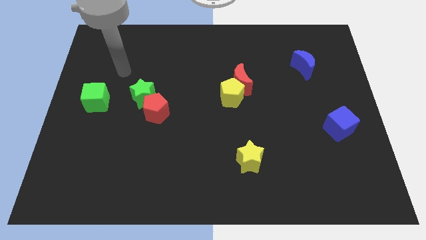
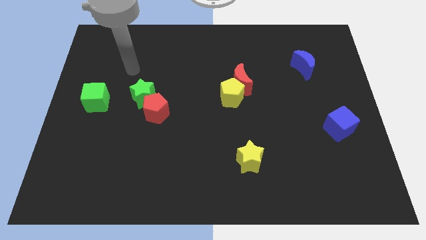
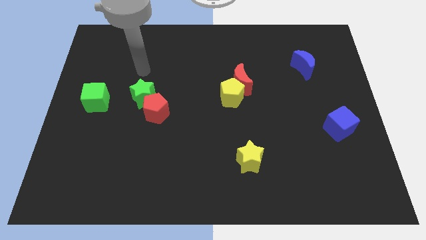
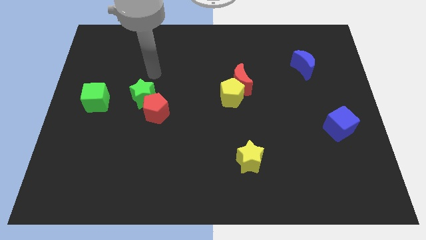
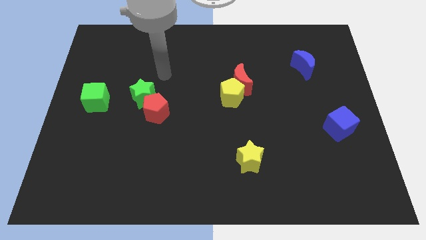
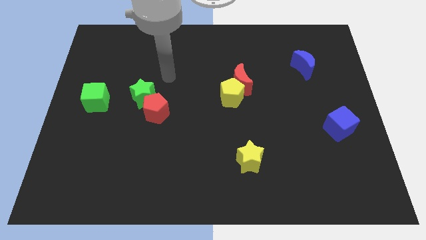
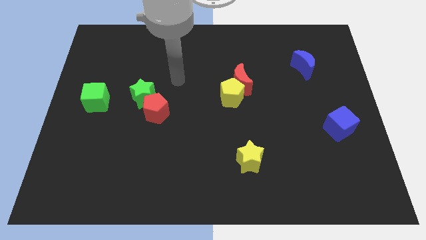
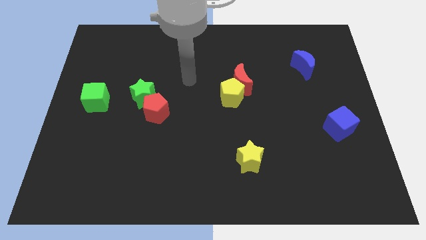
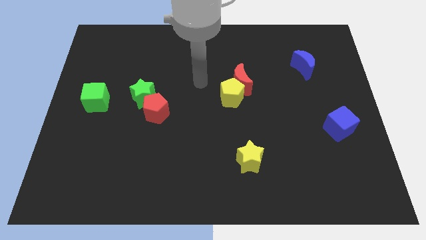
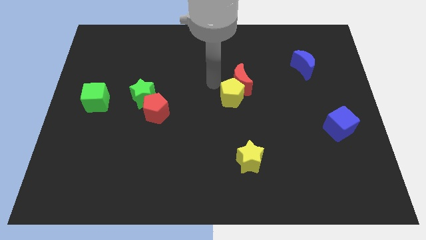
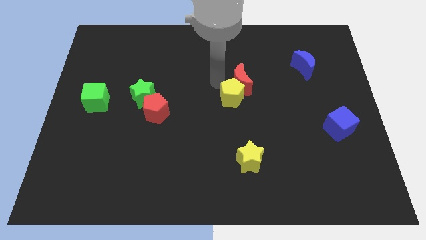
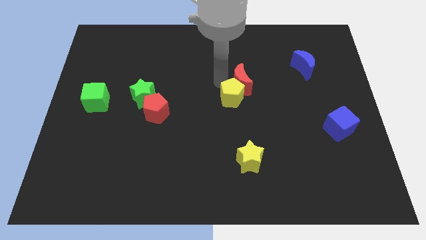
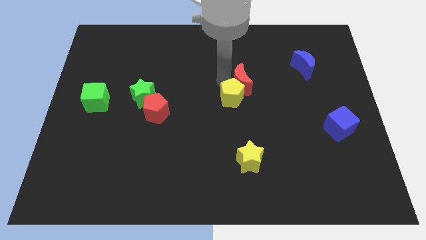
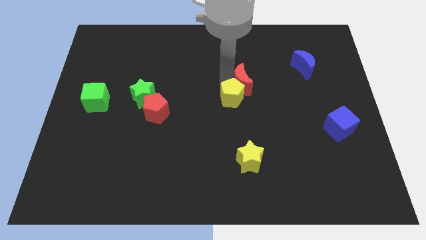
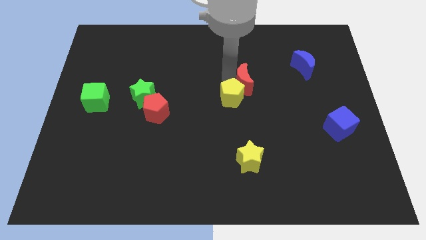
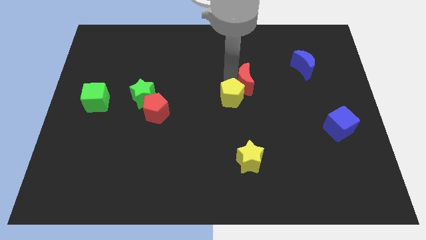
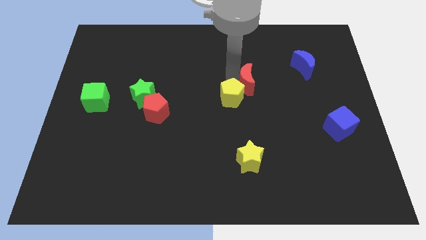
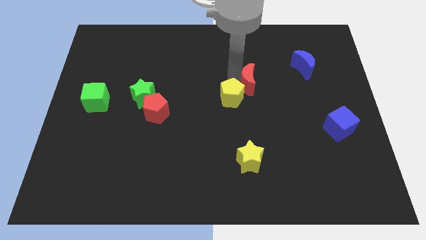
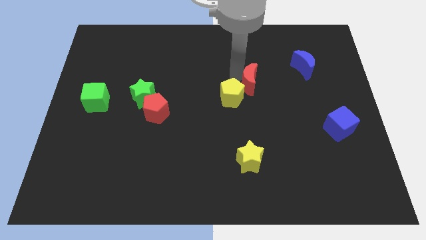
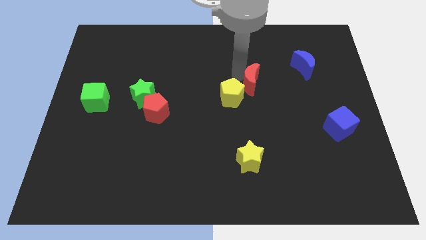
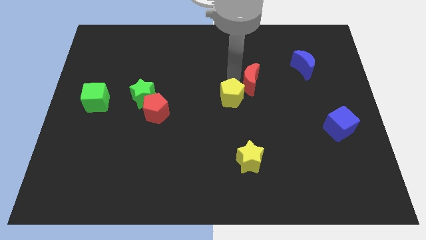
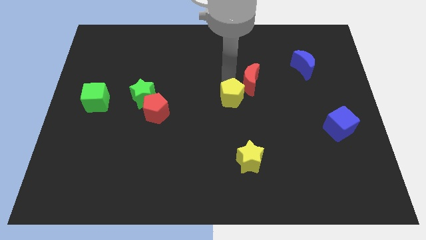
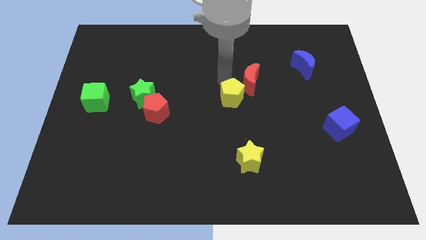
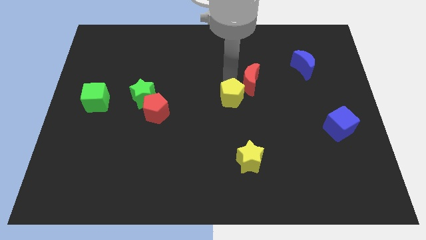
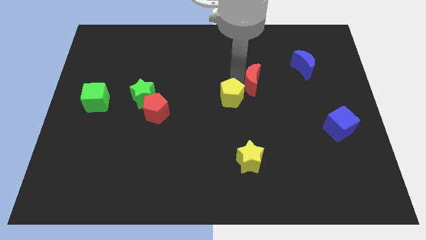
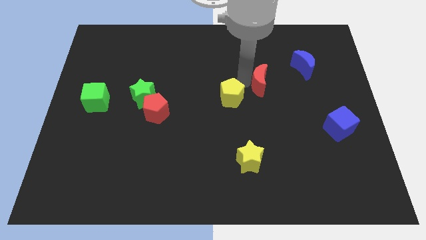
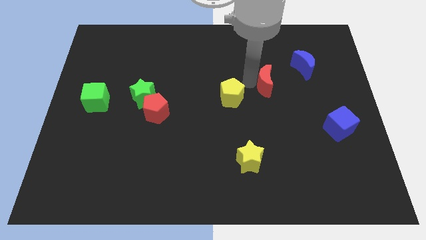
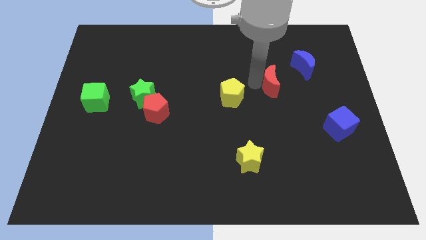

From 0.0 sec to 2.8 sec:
push the red moon right a little

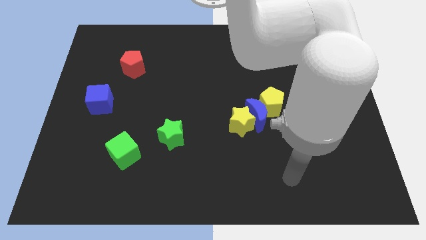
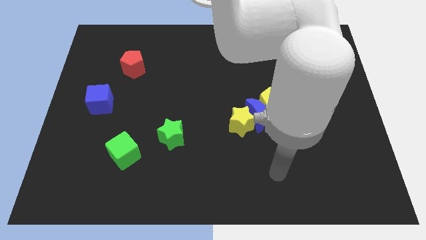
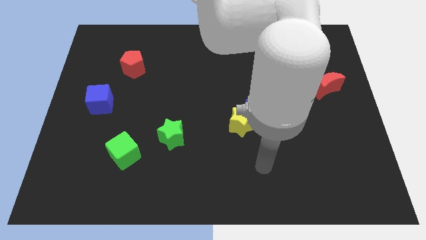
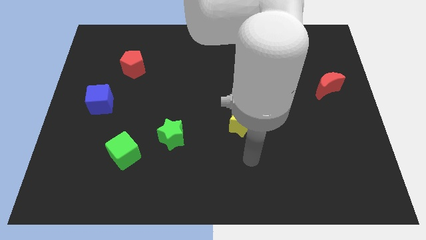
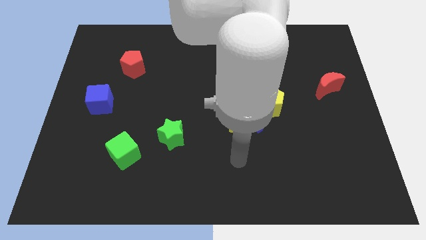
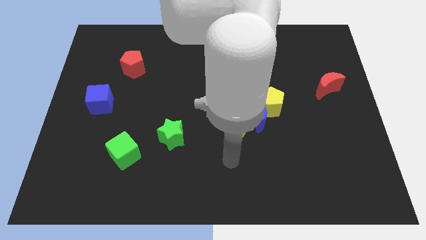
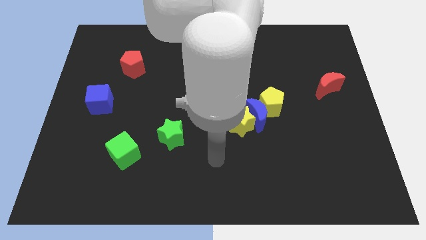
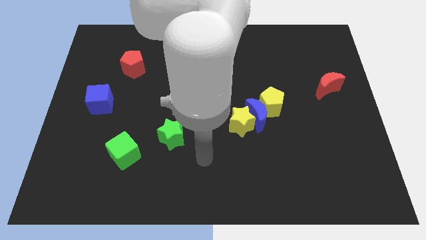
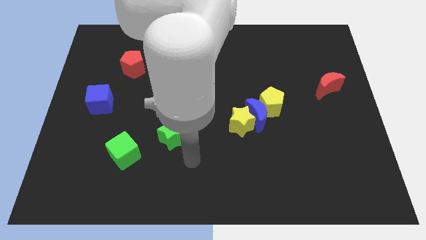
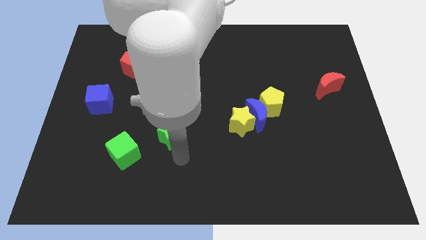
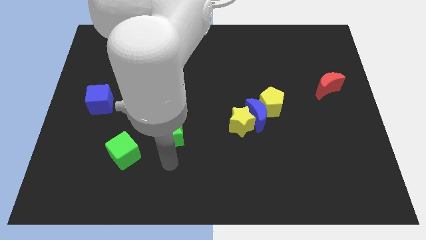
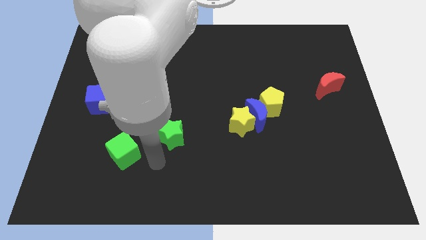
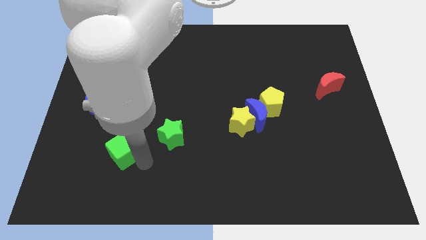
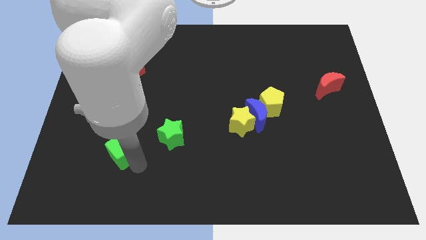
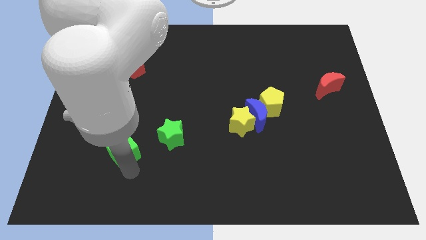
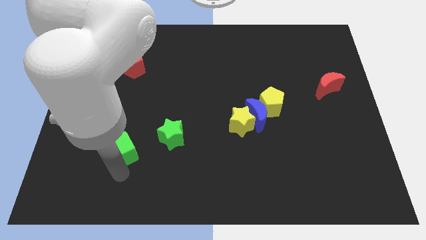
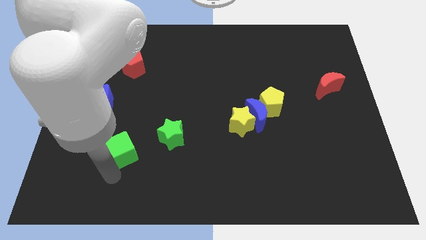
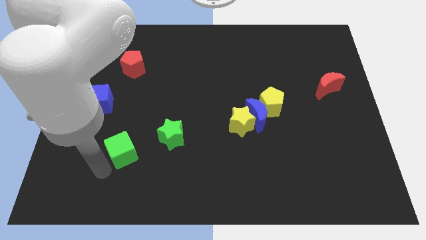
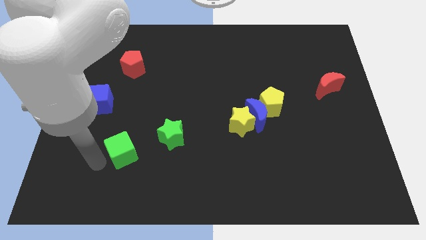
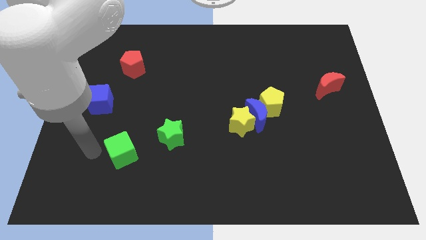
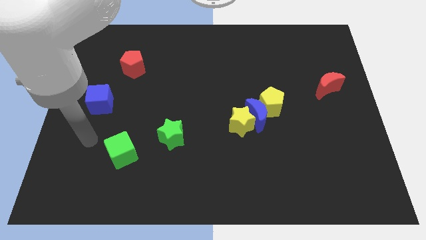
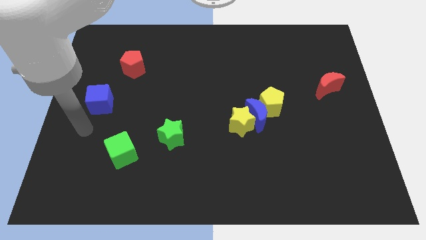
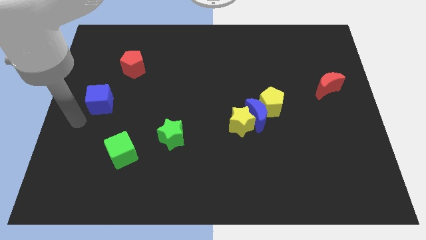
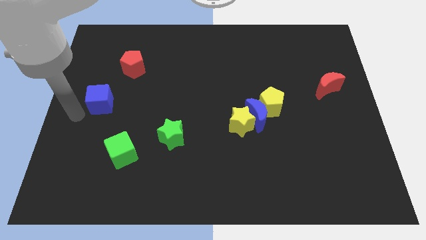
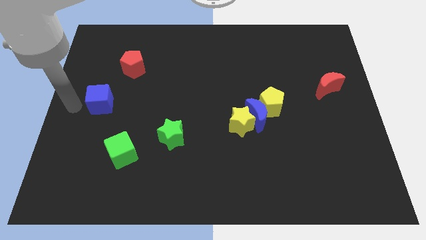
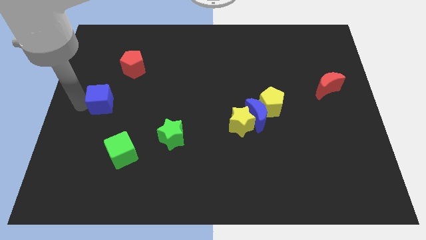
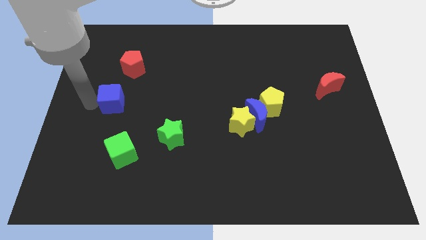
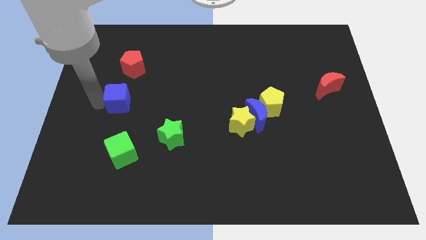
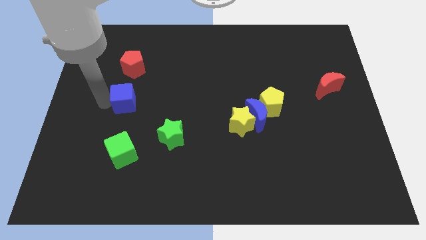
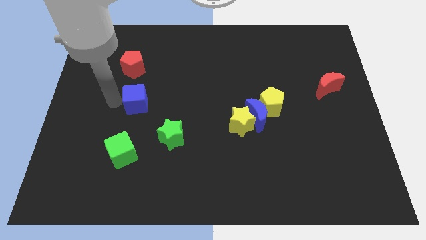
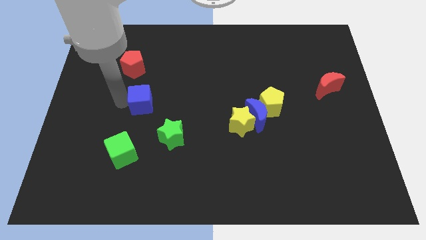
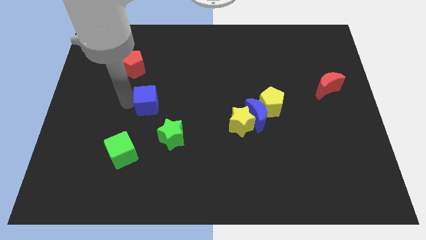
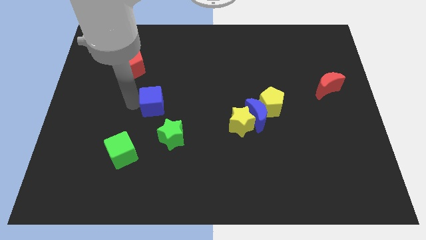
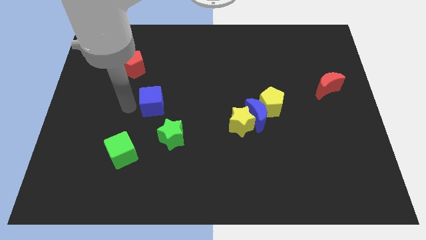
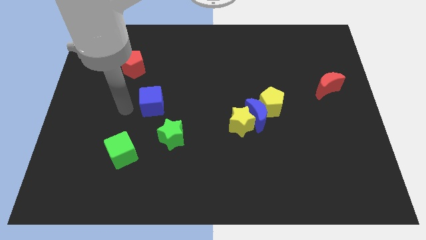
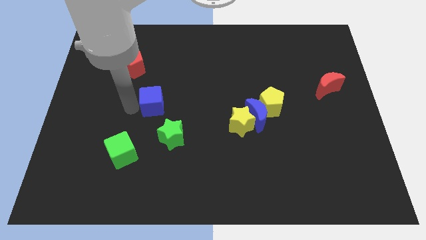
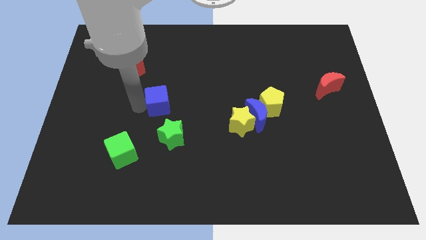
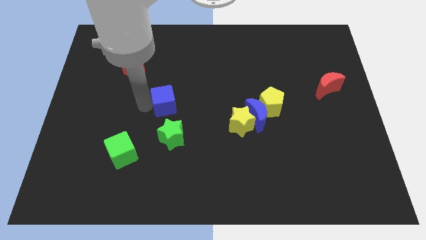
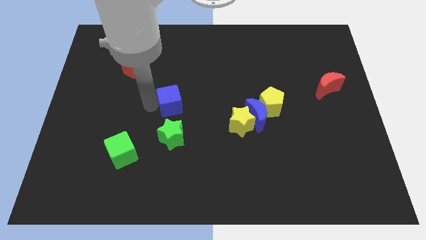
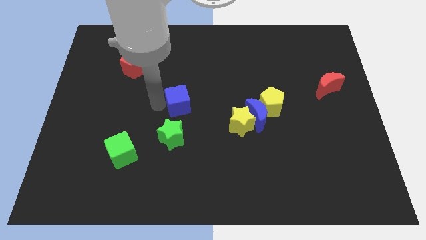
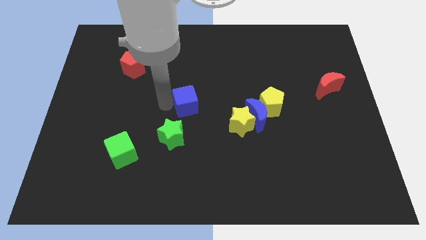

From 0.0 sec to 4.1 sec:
move the blue cube right

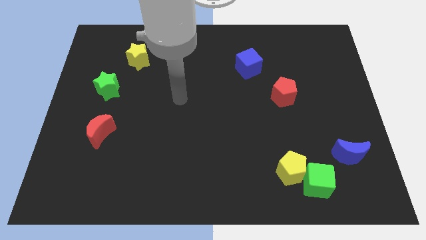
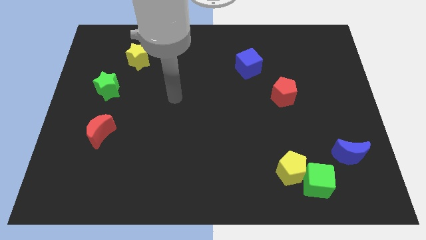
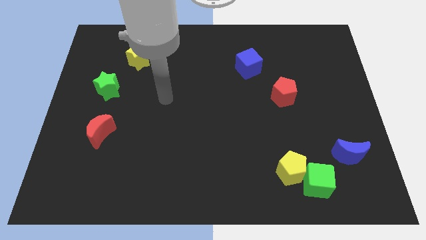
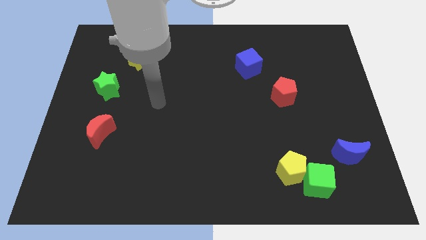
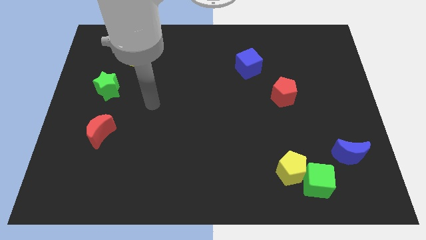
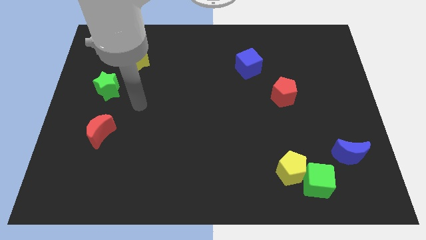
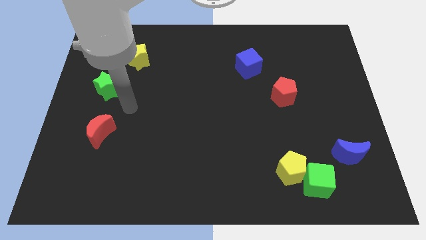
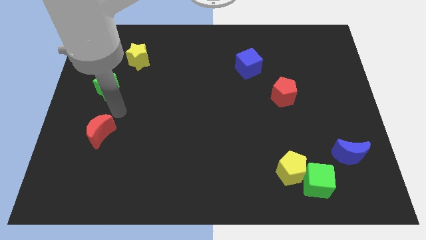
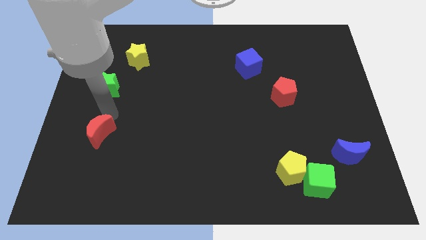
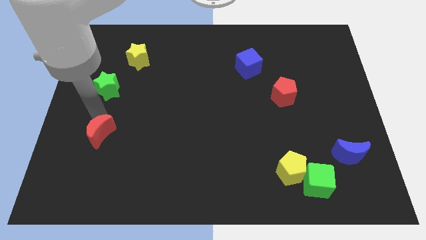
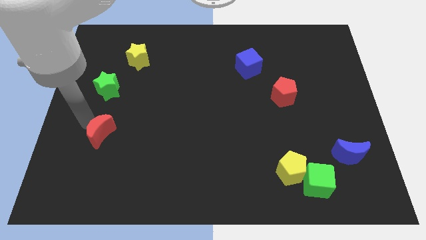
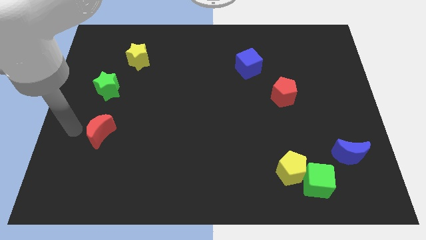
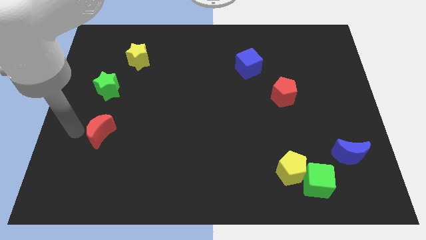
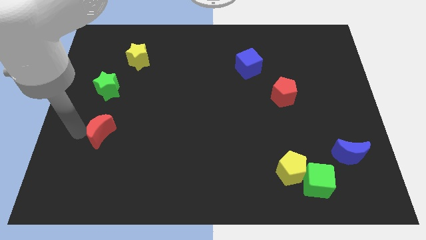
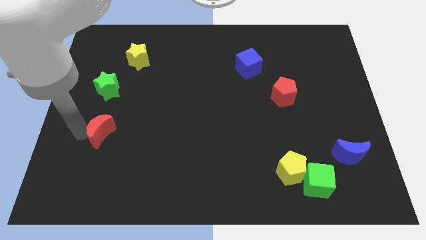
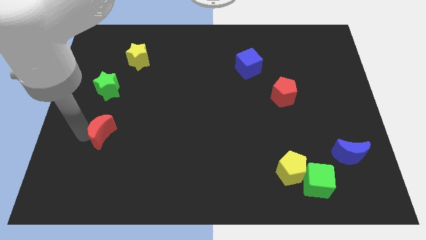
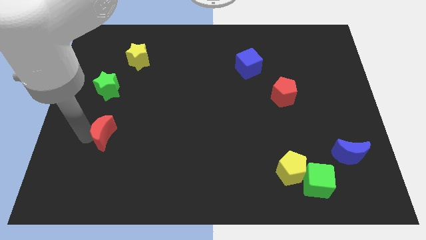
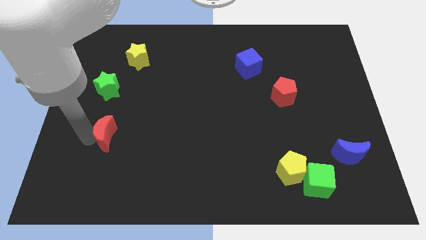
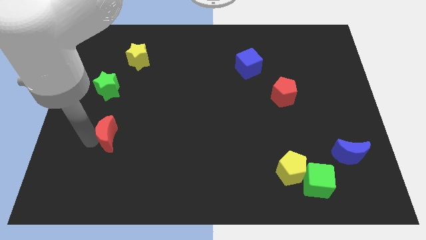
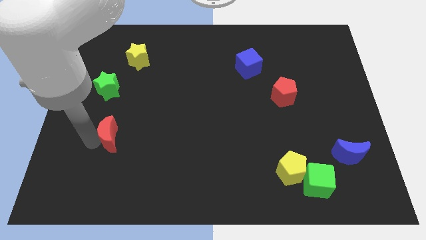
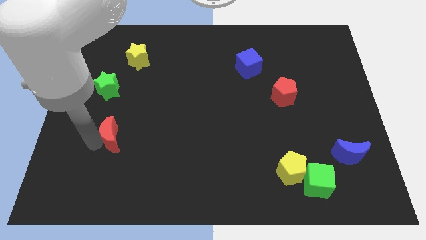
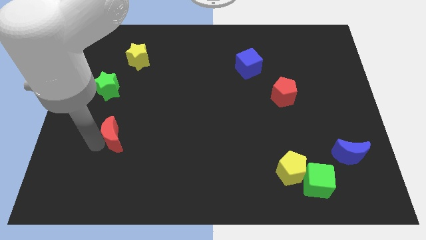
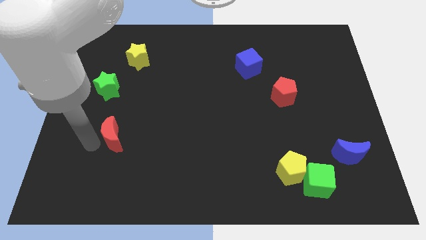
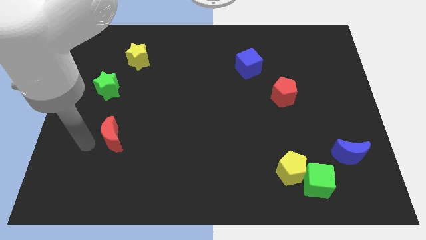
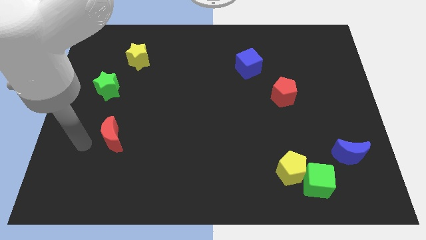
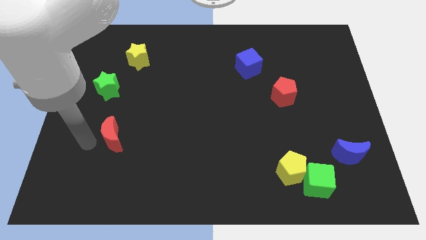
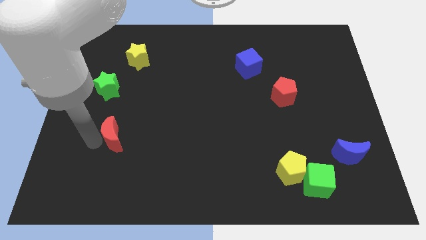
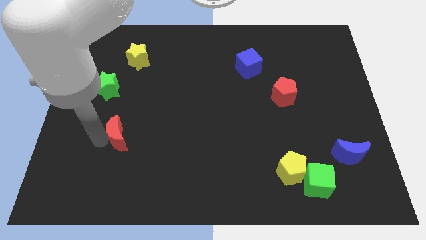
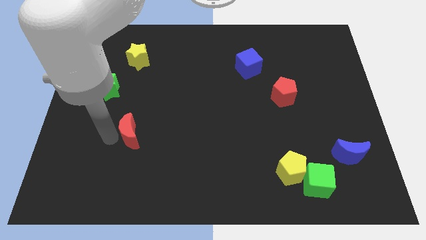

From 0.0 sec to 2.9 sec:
slightly move the red moon to the right
